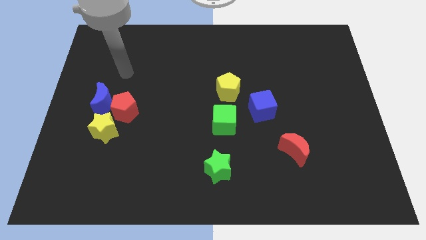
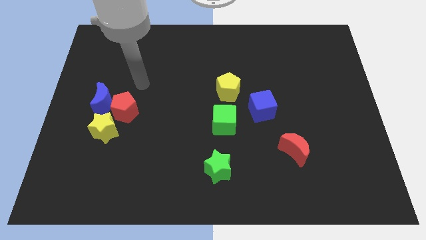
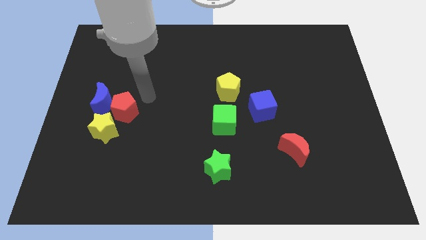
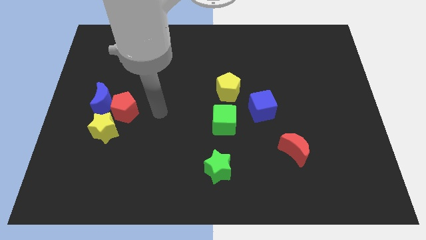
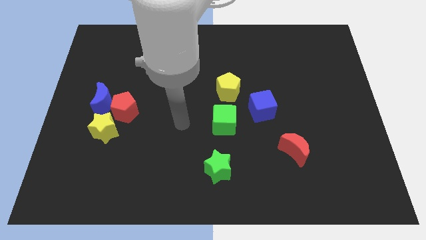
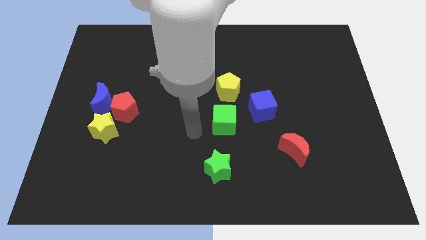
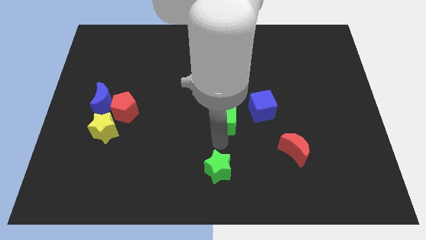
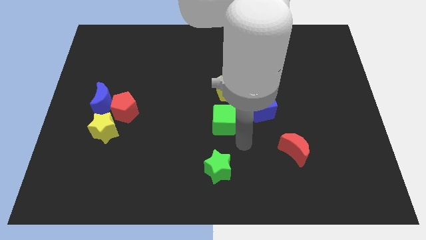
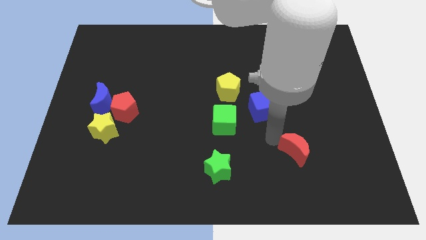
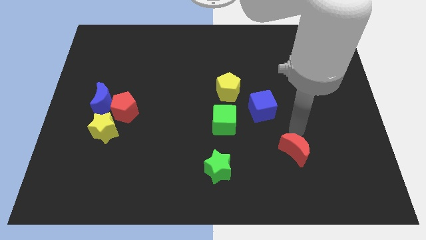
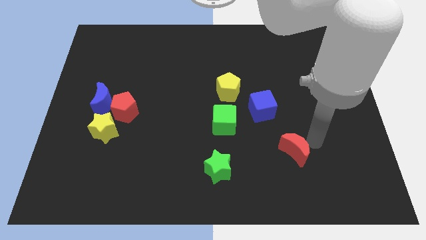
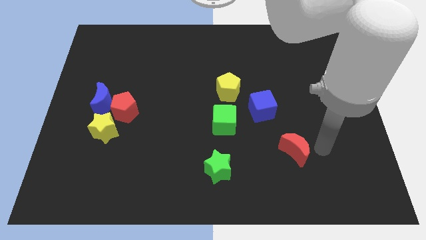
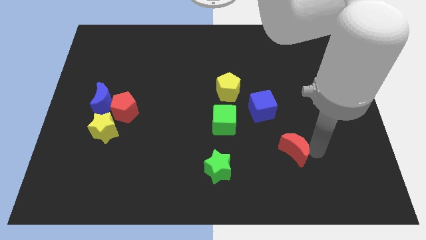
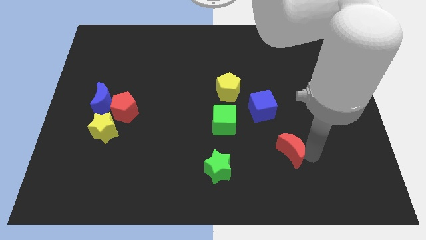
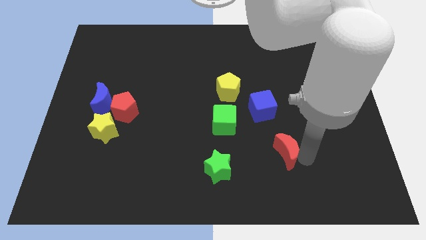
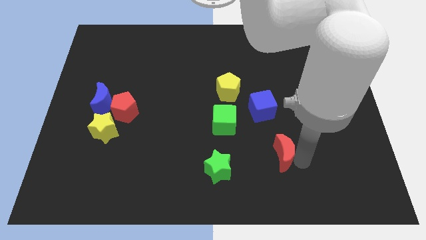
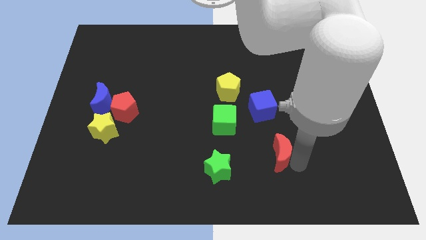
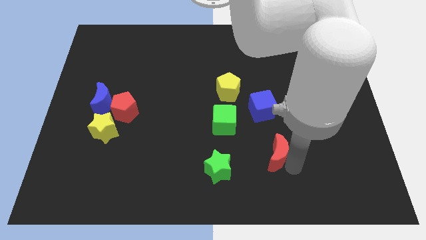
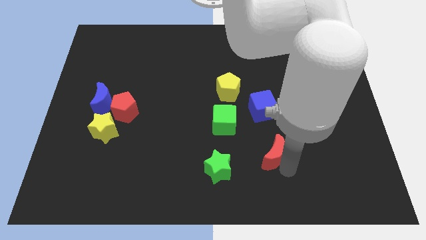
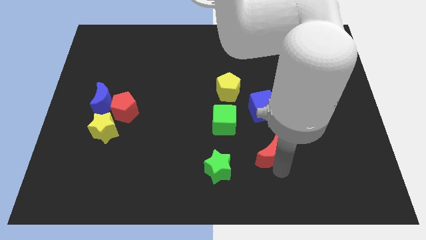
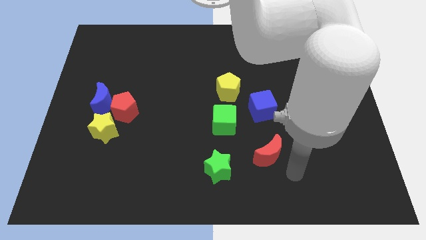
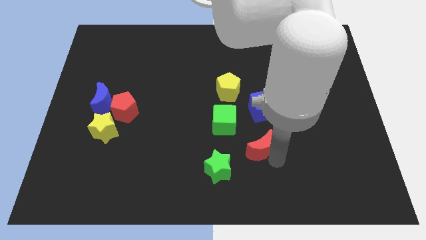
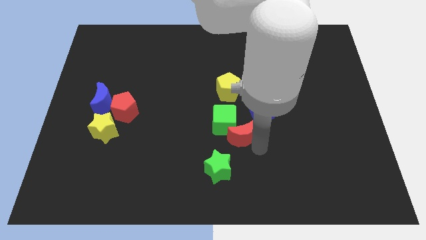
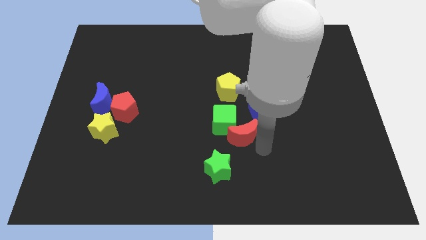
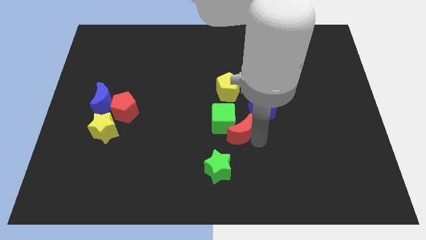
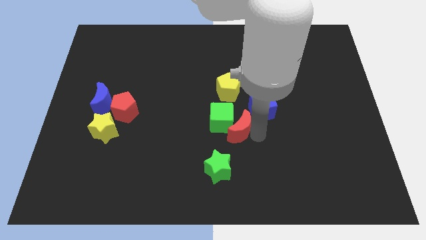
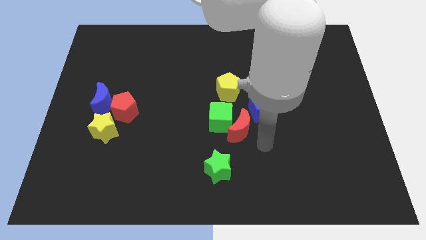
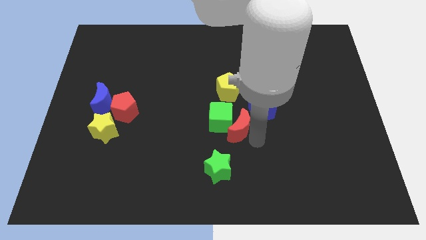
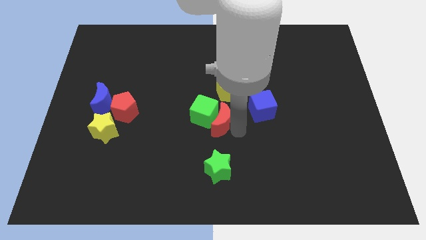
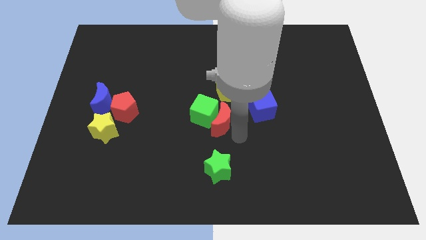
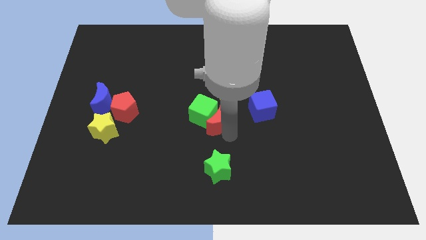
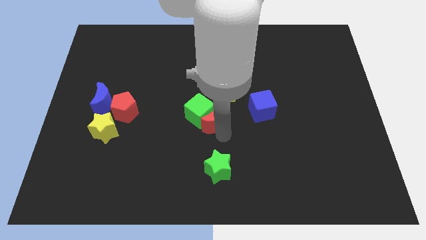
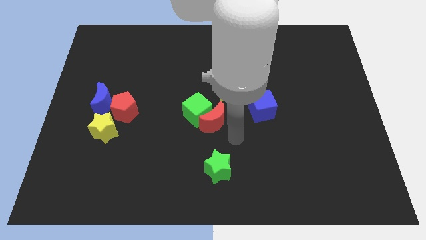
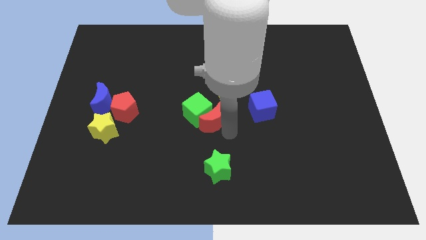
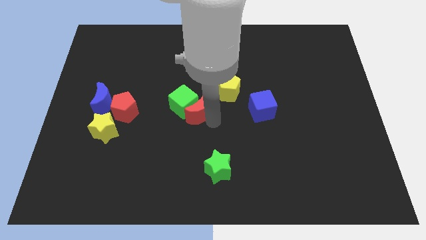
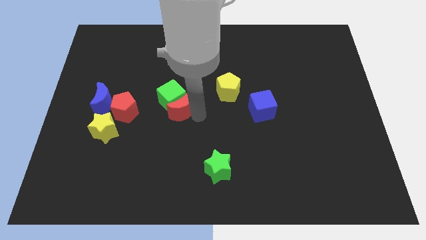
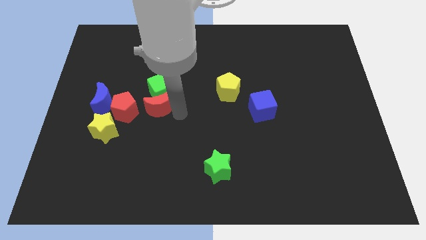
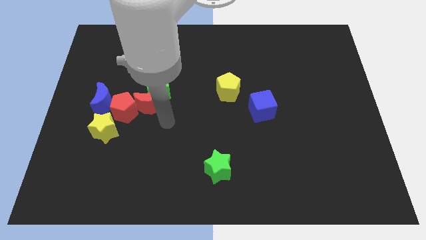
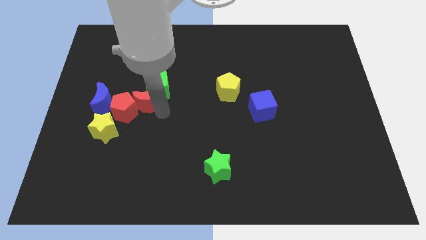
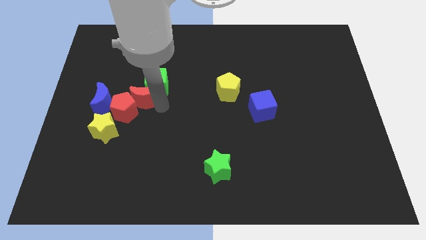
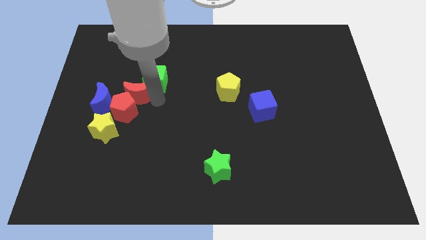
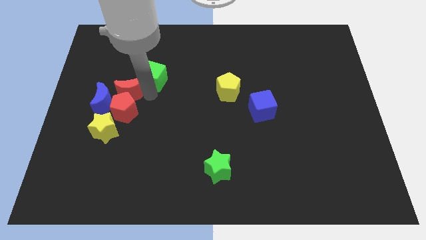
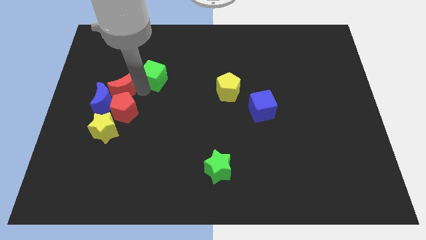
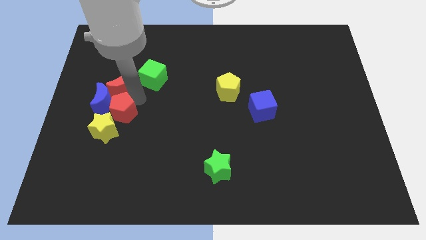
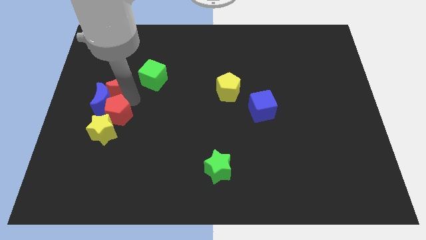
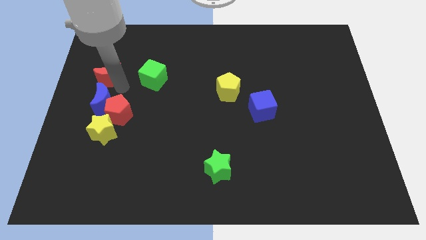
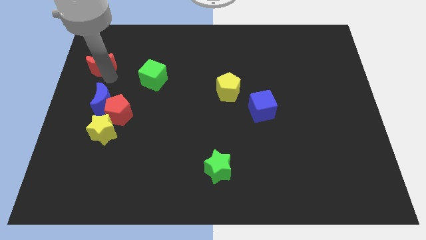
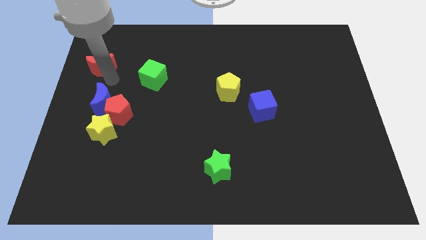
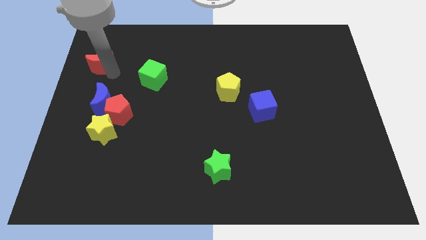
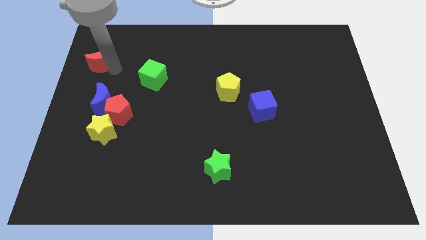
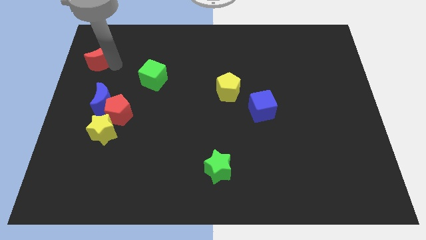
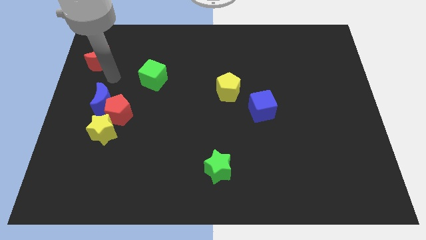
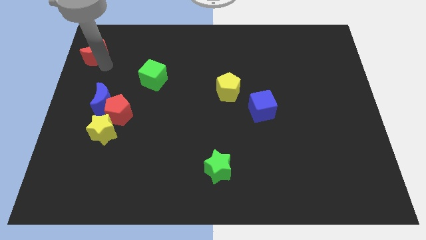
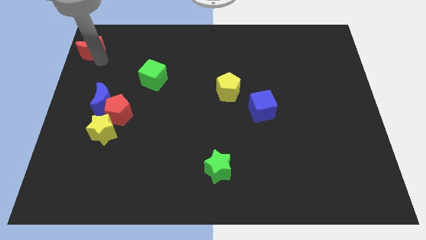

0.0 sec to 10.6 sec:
slide the red moon to the top left corner
